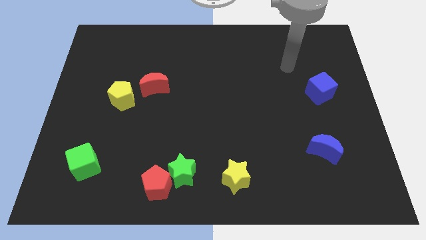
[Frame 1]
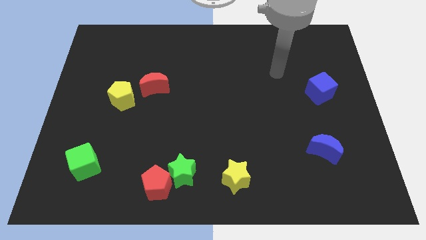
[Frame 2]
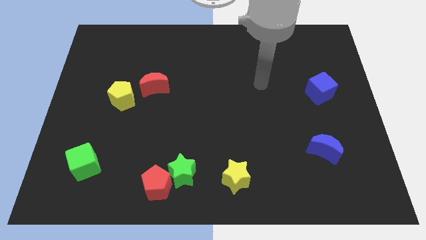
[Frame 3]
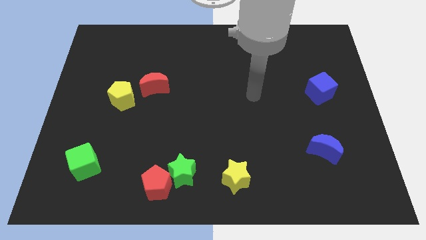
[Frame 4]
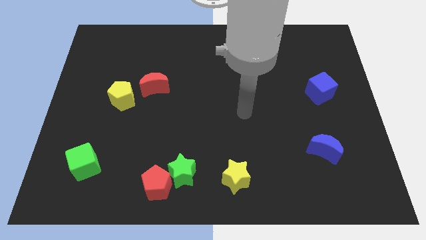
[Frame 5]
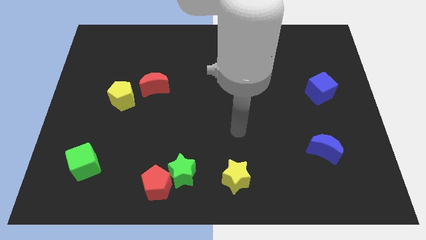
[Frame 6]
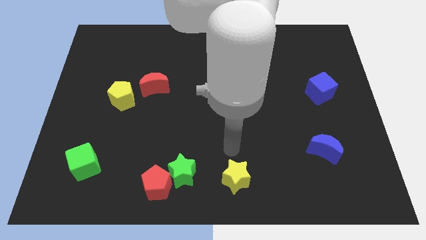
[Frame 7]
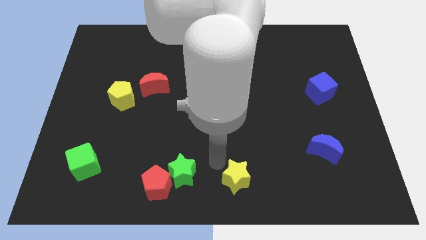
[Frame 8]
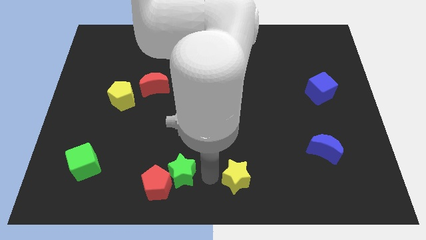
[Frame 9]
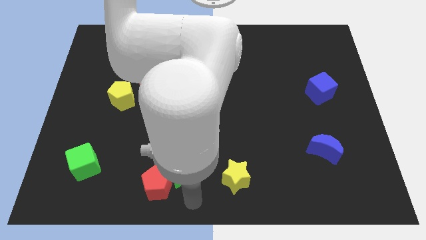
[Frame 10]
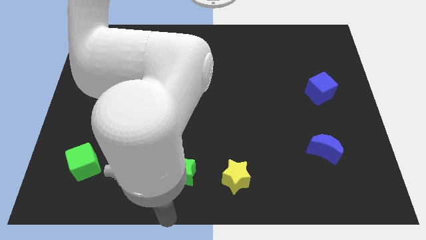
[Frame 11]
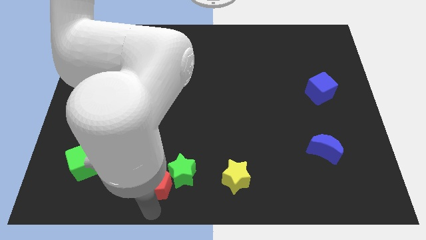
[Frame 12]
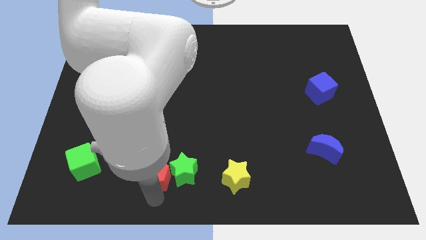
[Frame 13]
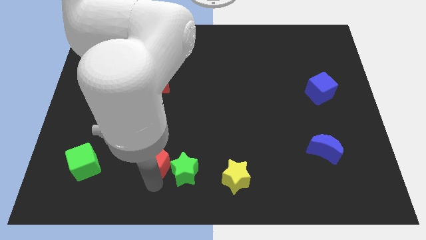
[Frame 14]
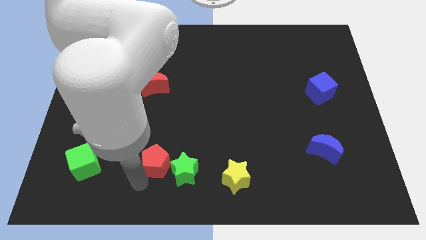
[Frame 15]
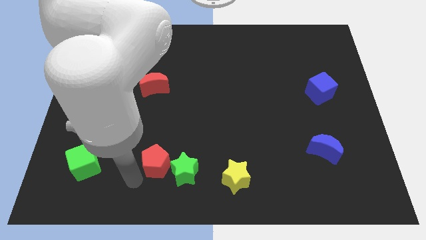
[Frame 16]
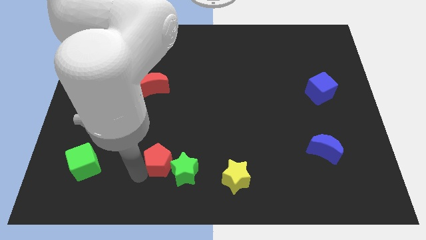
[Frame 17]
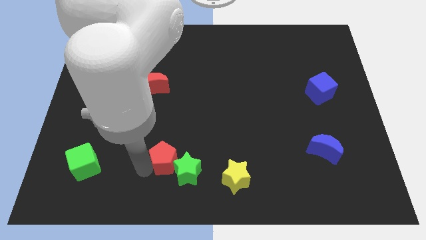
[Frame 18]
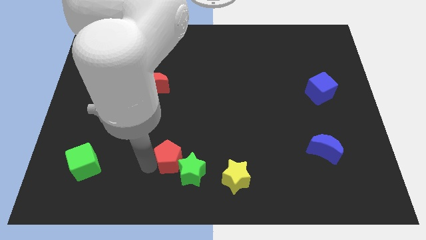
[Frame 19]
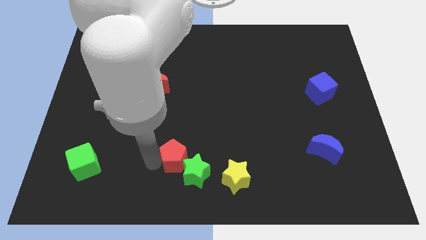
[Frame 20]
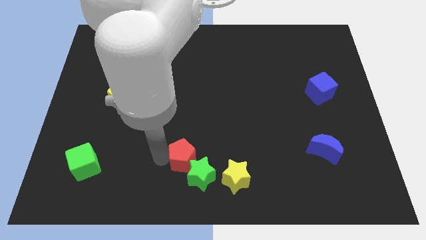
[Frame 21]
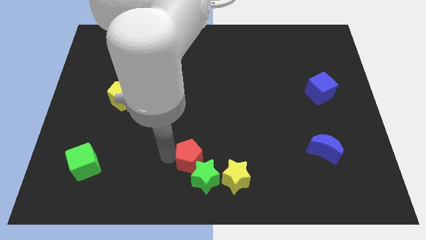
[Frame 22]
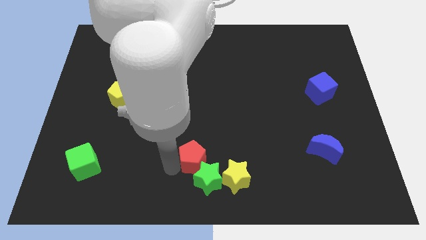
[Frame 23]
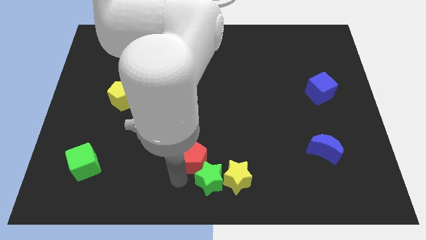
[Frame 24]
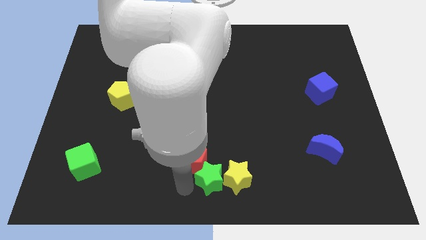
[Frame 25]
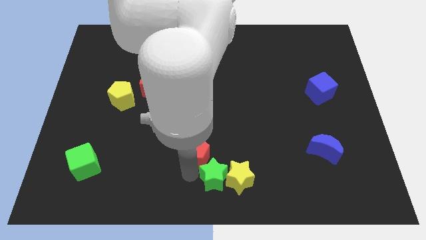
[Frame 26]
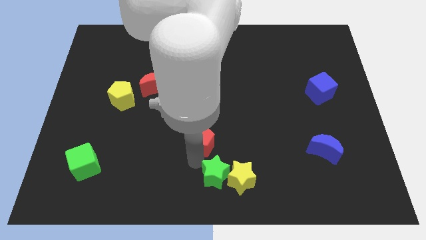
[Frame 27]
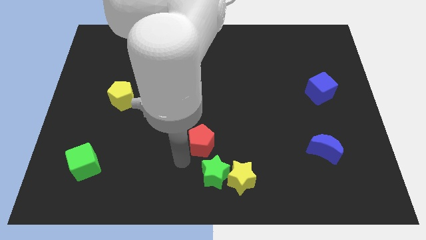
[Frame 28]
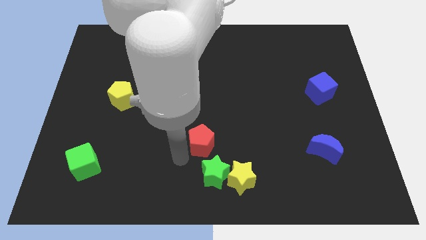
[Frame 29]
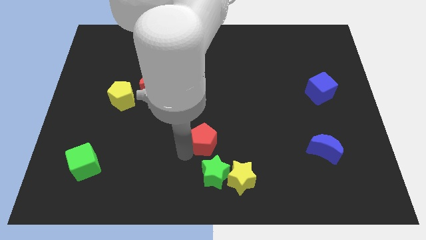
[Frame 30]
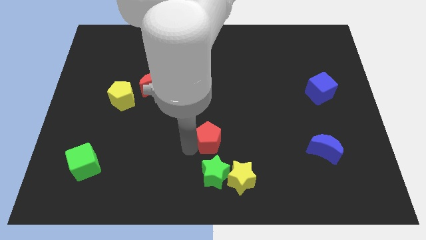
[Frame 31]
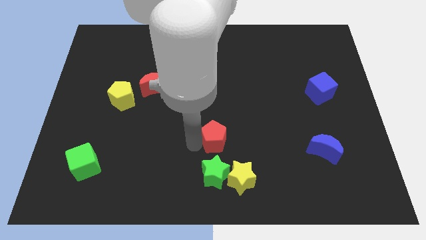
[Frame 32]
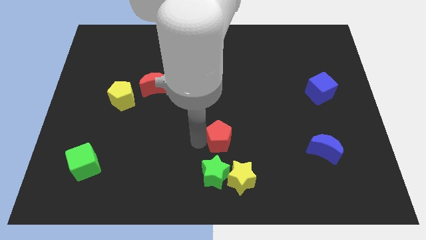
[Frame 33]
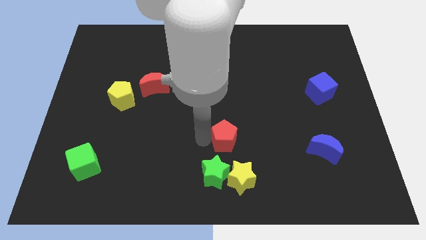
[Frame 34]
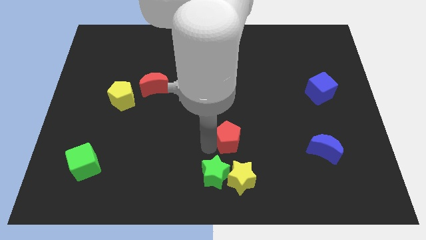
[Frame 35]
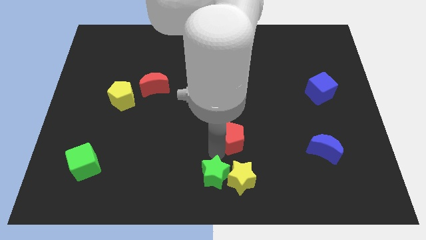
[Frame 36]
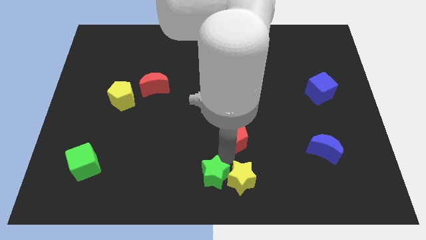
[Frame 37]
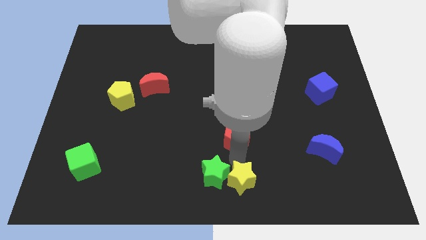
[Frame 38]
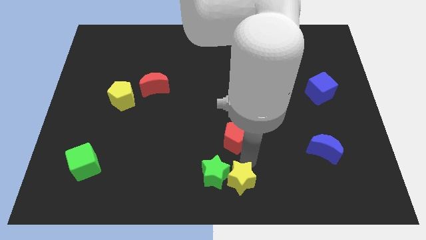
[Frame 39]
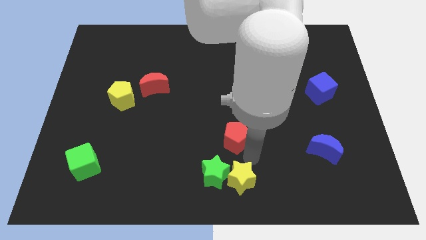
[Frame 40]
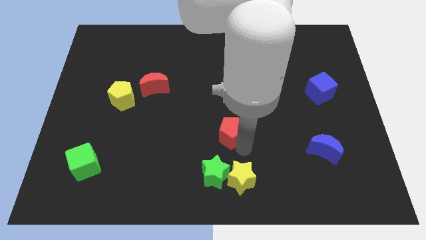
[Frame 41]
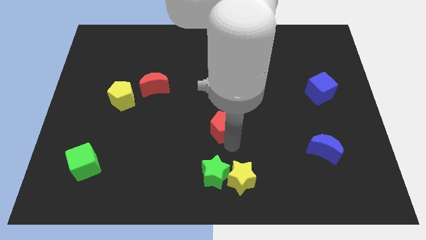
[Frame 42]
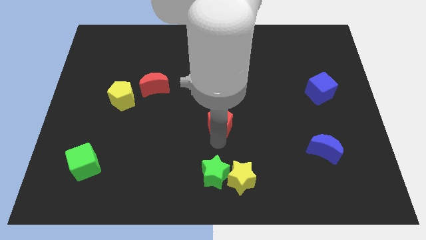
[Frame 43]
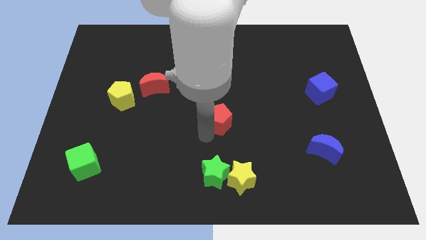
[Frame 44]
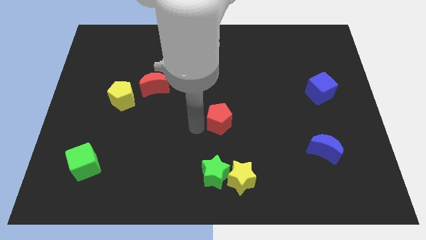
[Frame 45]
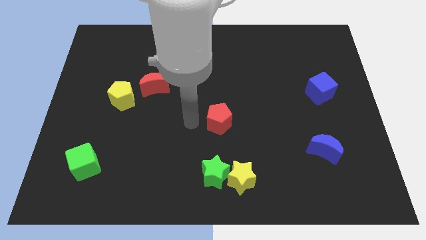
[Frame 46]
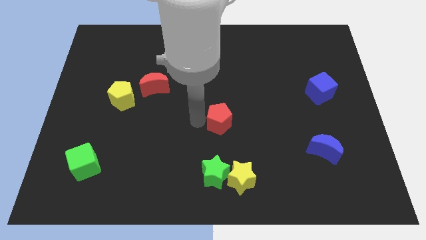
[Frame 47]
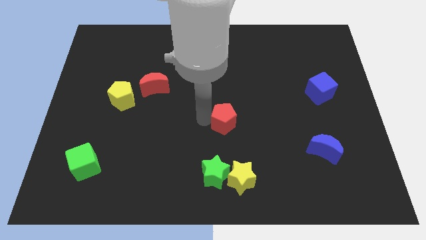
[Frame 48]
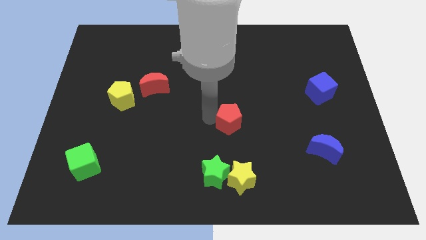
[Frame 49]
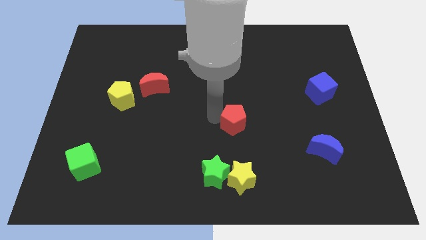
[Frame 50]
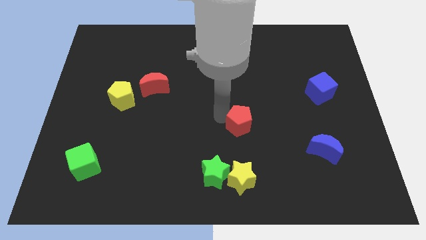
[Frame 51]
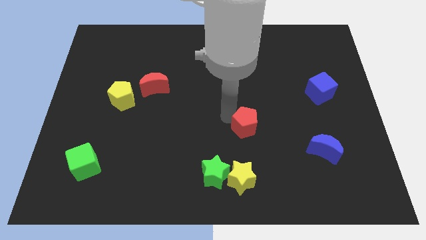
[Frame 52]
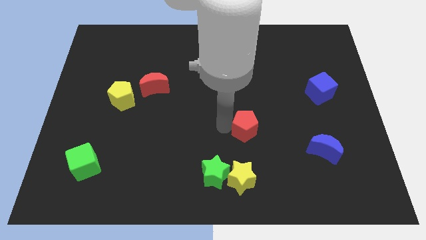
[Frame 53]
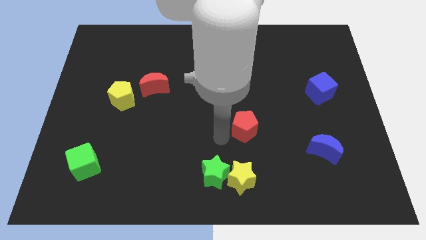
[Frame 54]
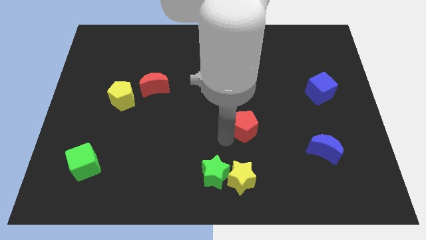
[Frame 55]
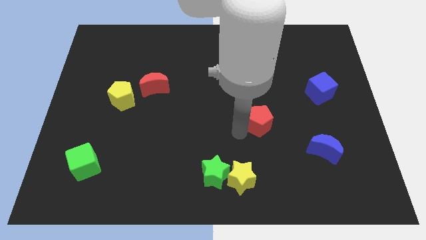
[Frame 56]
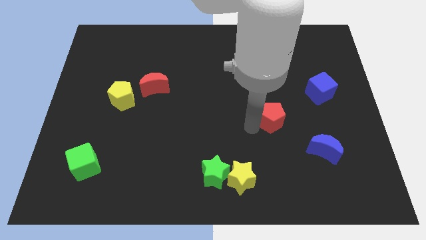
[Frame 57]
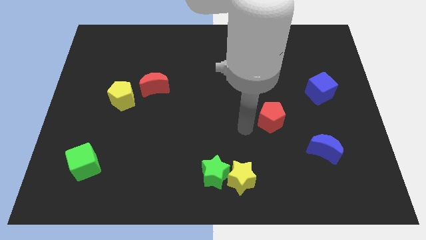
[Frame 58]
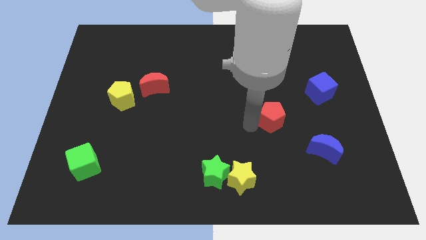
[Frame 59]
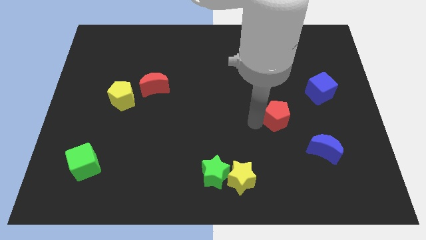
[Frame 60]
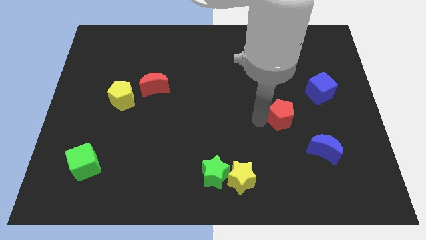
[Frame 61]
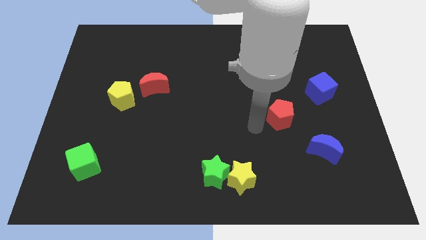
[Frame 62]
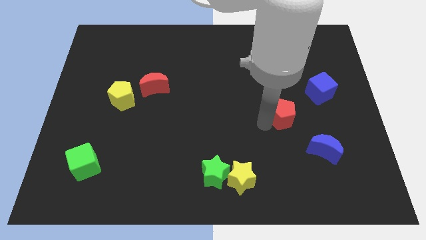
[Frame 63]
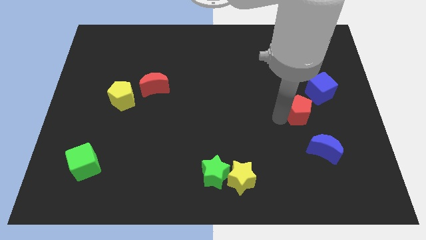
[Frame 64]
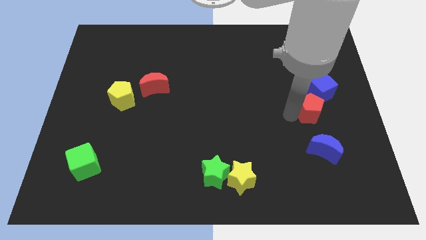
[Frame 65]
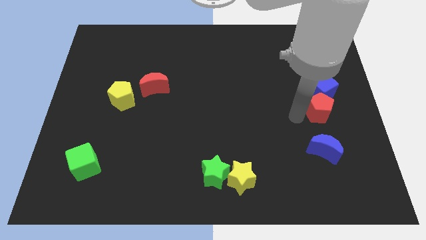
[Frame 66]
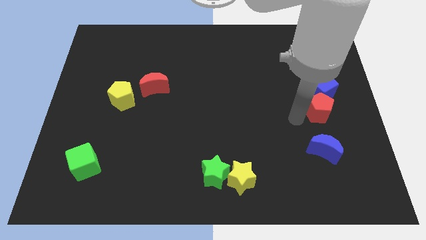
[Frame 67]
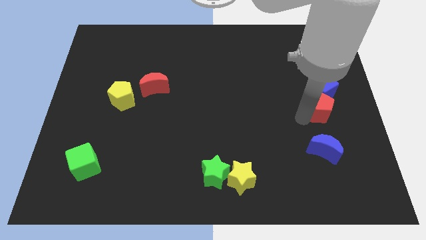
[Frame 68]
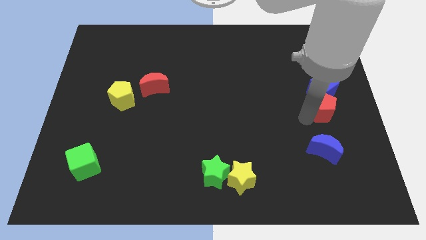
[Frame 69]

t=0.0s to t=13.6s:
put the red pentagon to the center right
